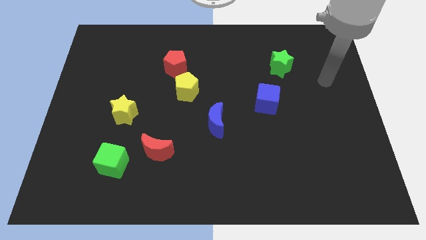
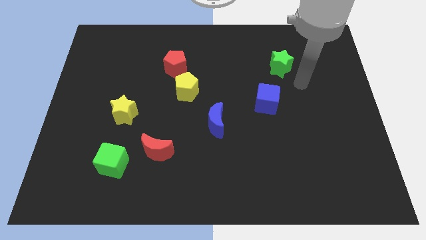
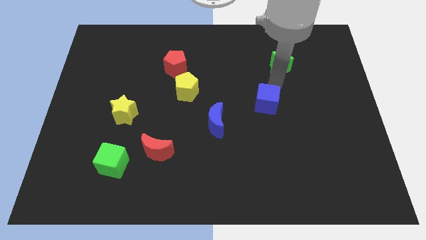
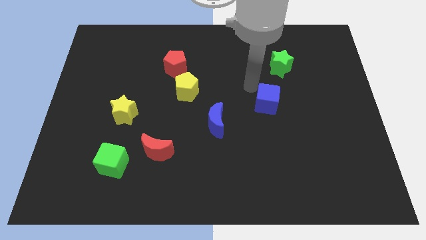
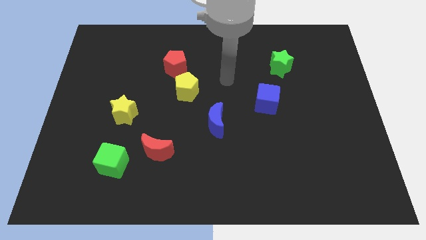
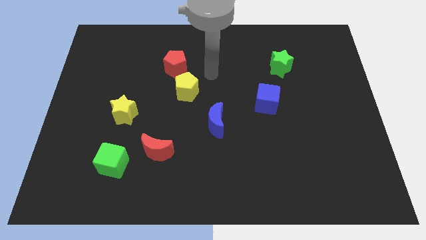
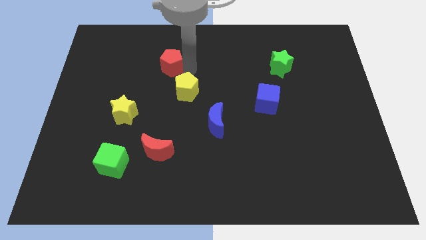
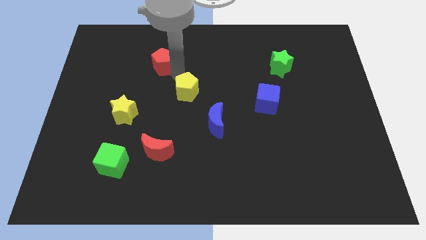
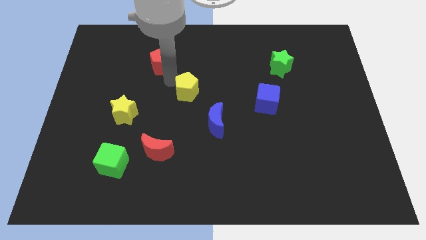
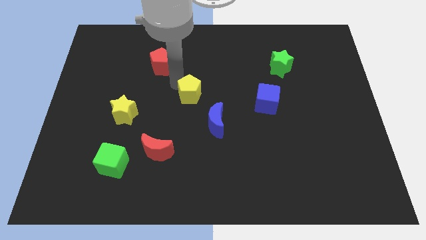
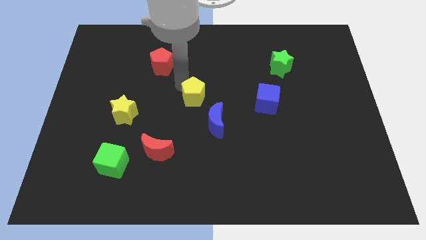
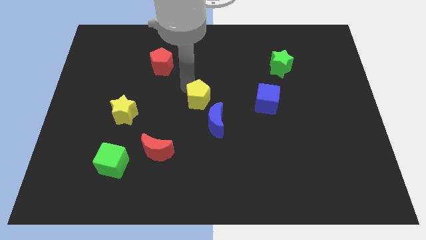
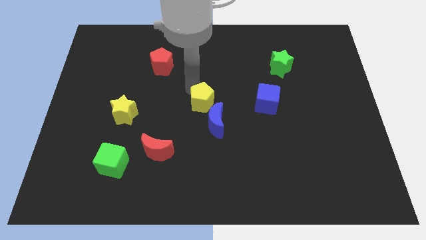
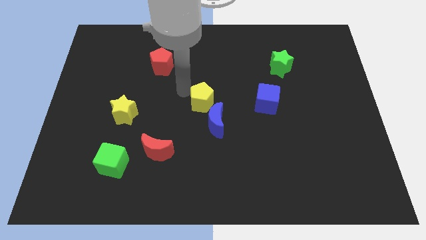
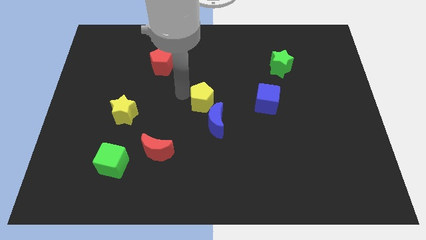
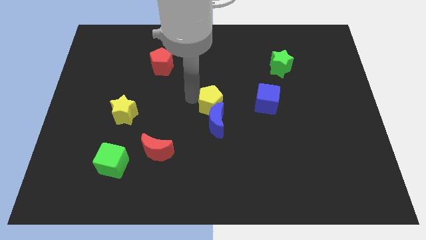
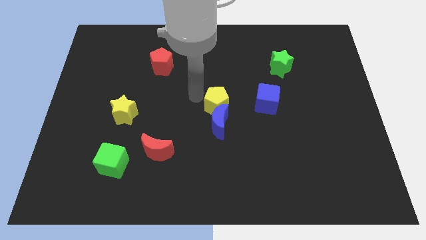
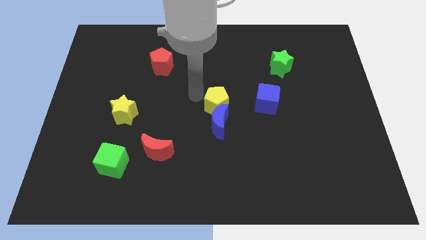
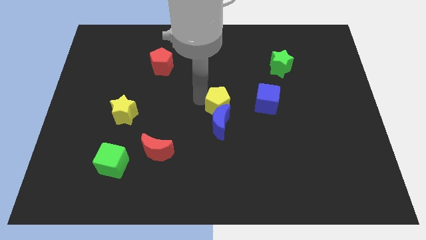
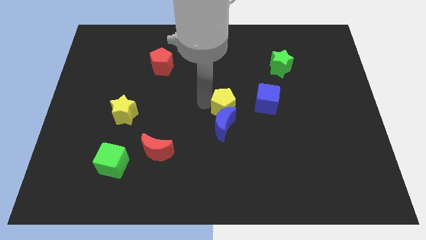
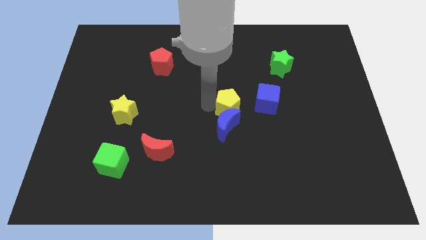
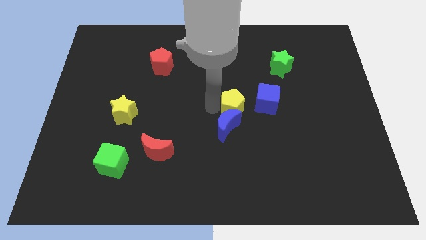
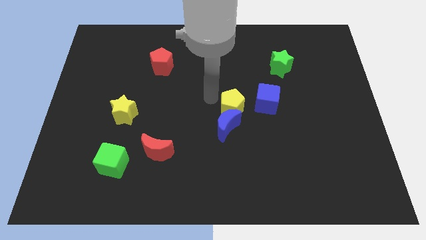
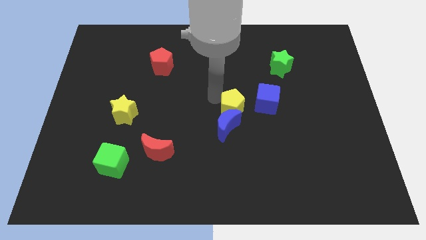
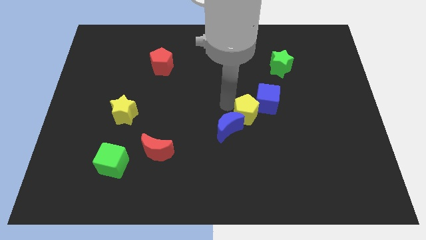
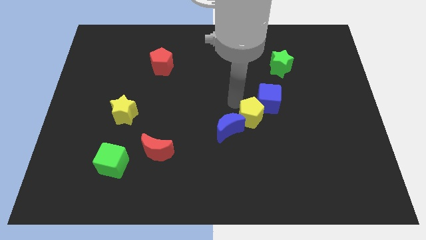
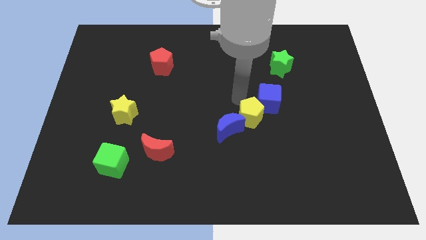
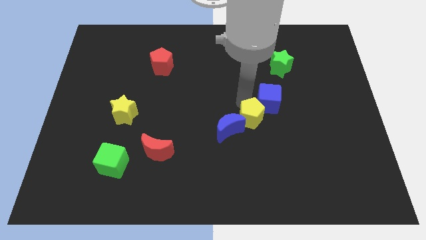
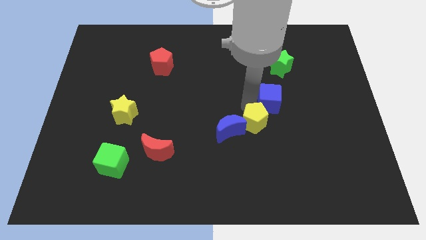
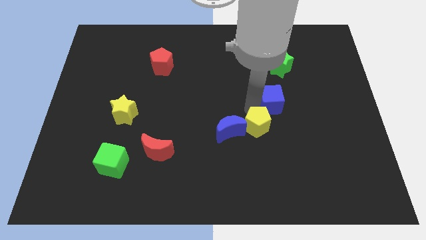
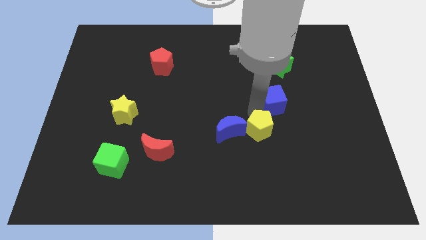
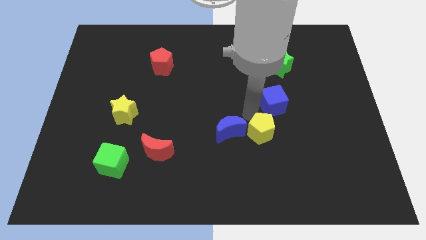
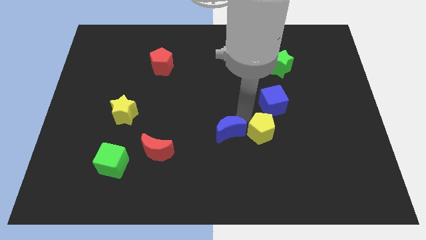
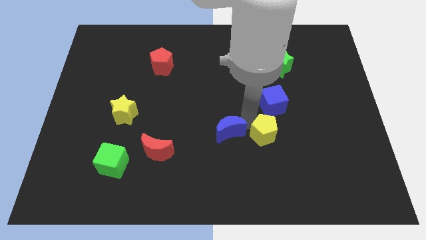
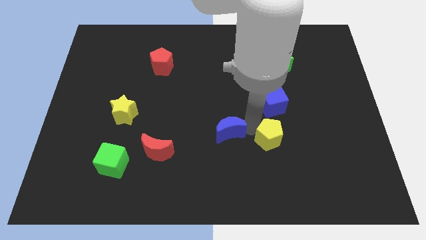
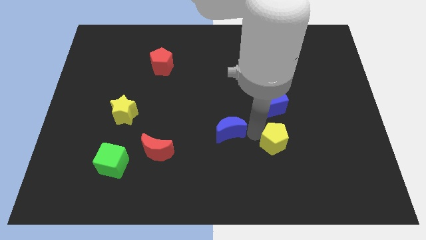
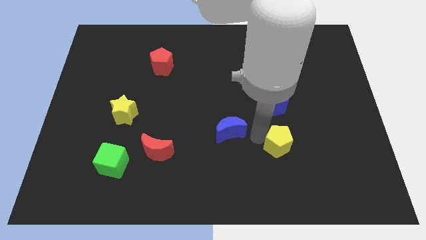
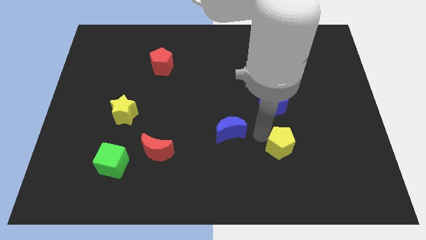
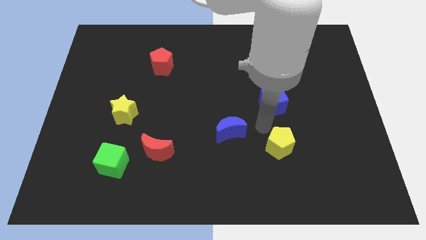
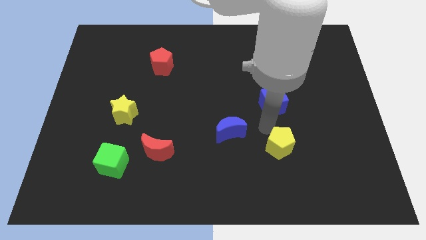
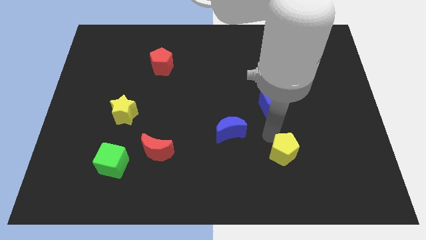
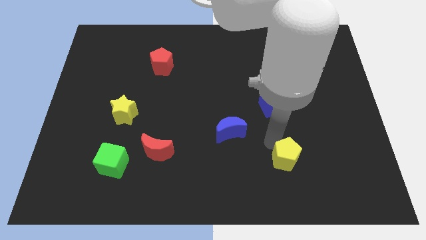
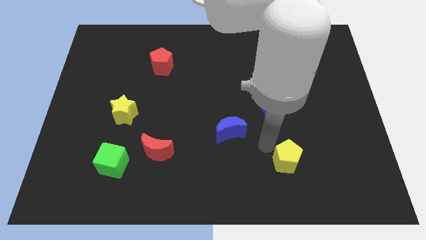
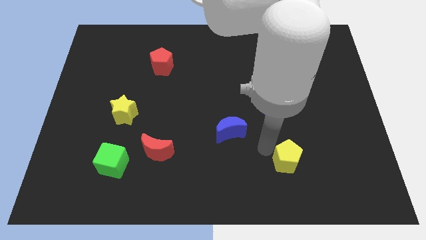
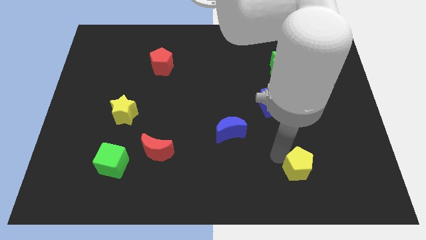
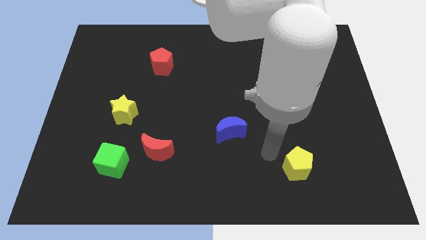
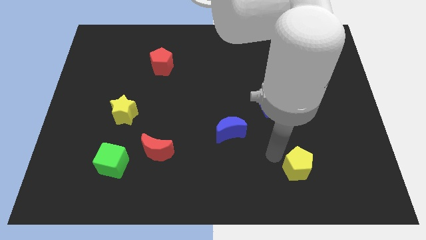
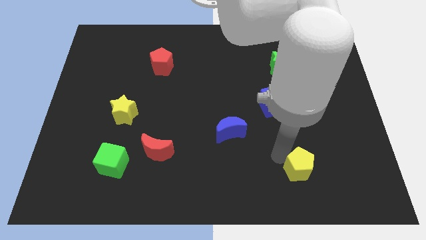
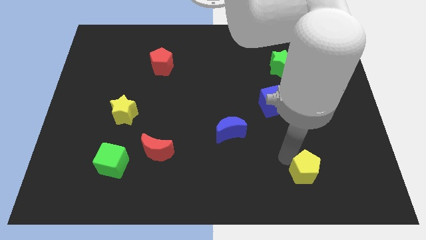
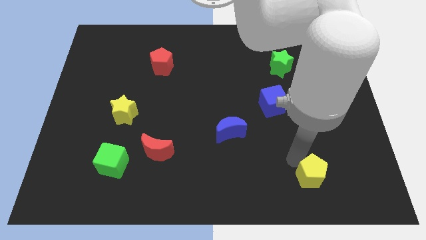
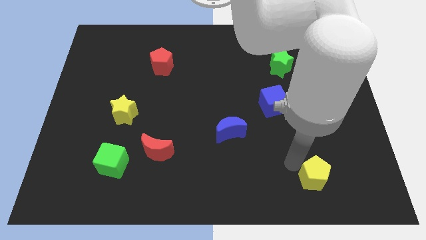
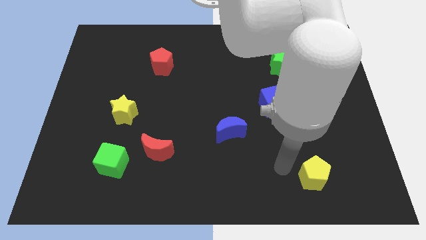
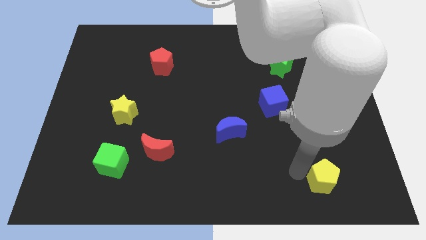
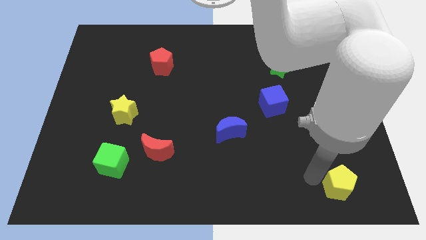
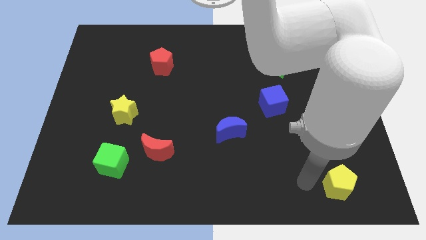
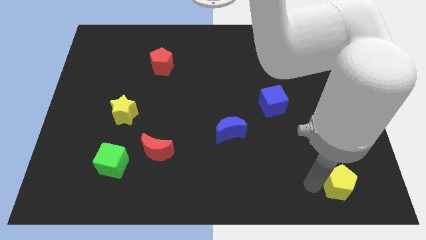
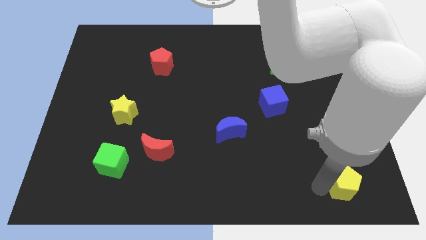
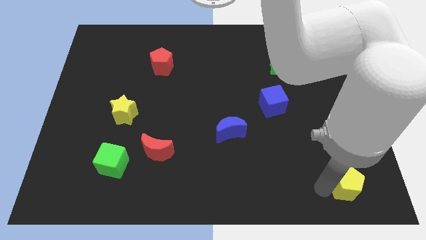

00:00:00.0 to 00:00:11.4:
put the yellow pentagon to the bottom right
